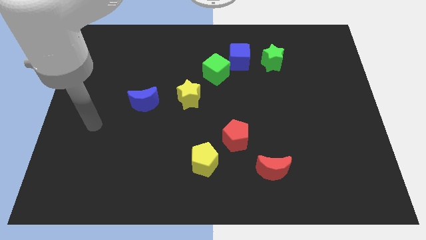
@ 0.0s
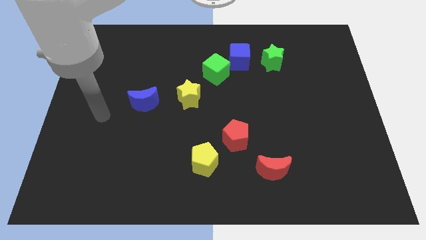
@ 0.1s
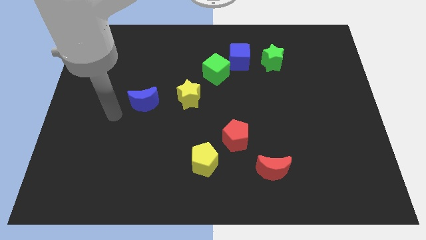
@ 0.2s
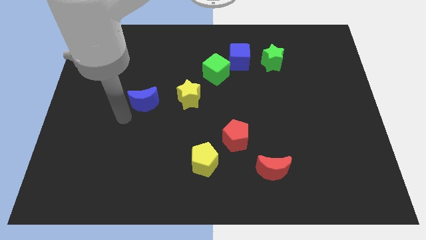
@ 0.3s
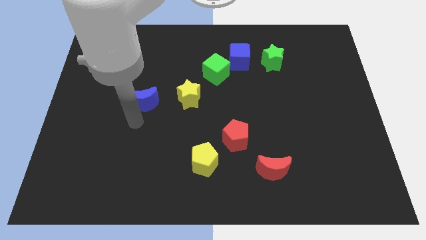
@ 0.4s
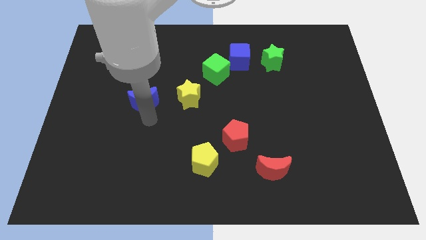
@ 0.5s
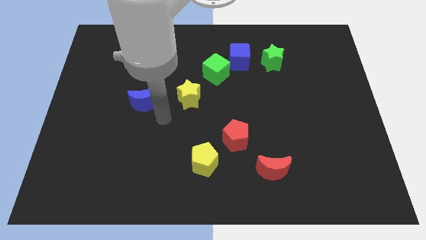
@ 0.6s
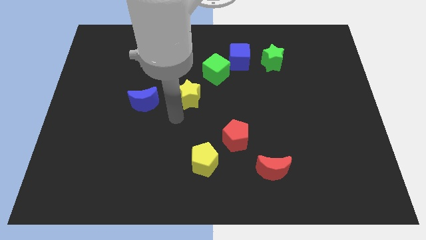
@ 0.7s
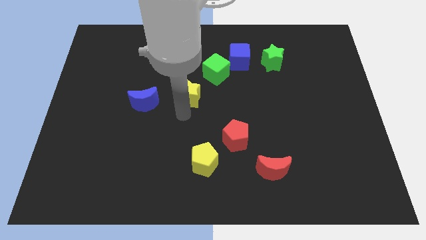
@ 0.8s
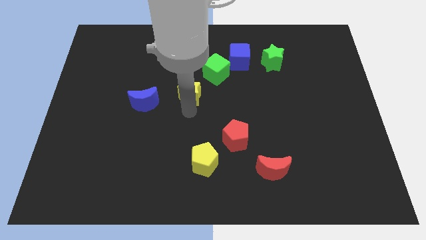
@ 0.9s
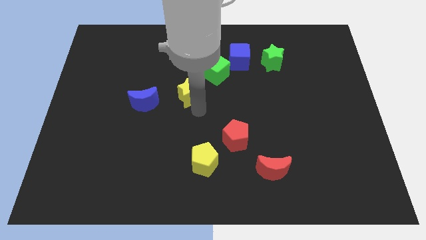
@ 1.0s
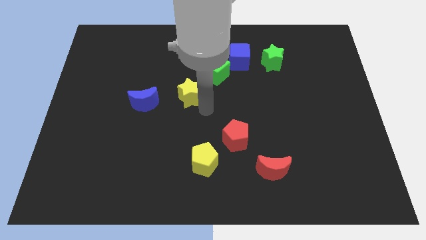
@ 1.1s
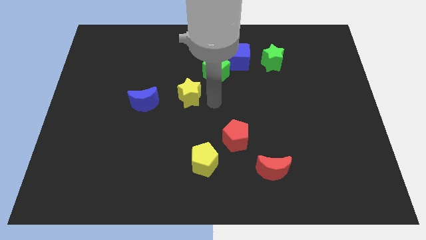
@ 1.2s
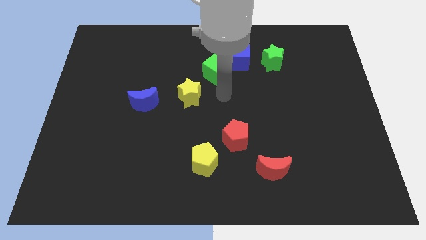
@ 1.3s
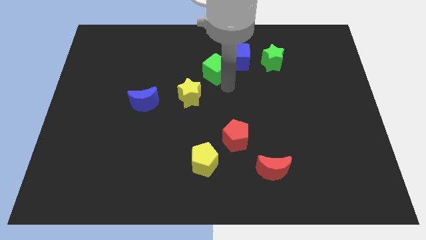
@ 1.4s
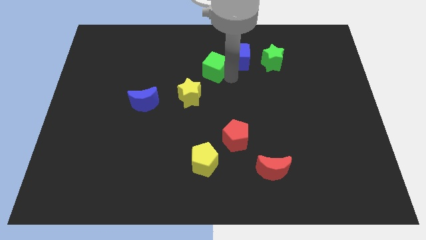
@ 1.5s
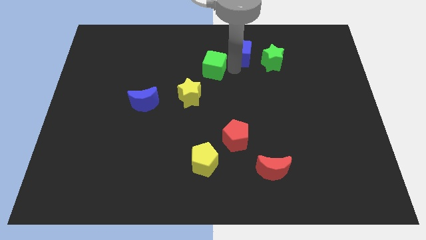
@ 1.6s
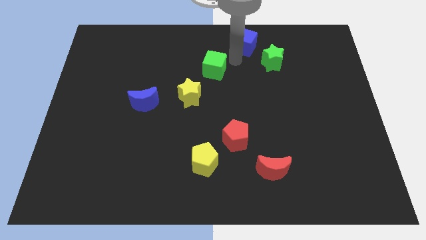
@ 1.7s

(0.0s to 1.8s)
pull the green cube apart from the blue cube

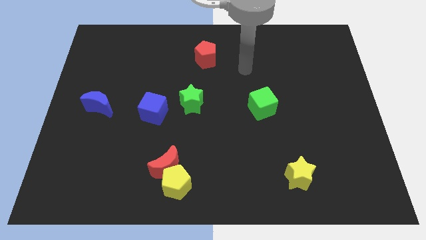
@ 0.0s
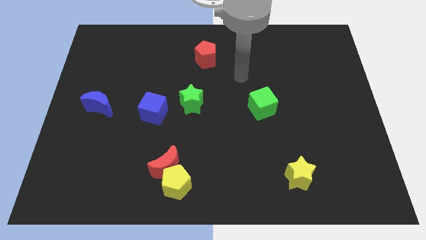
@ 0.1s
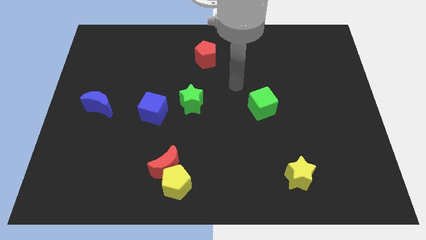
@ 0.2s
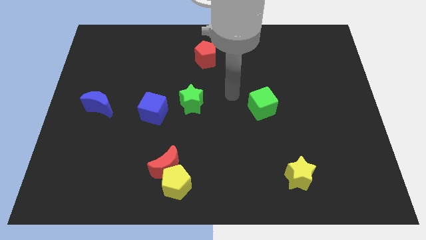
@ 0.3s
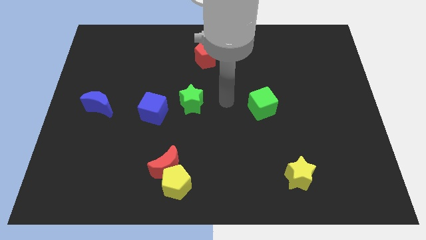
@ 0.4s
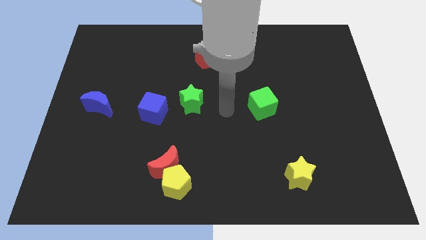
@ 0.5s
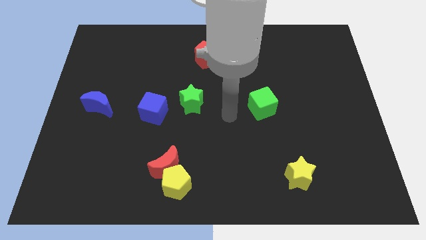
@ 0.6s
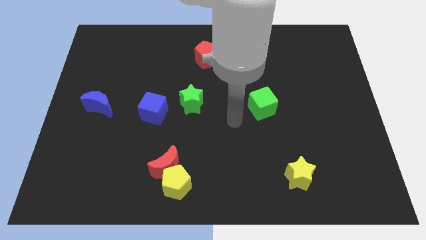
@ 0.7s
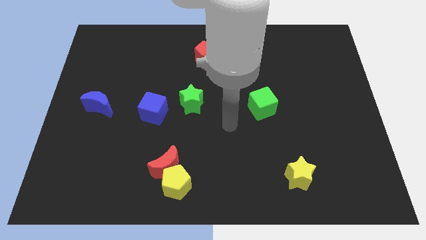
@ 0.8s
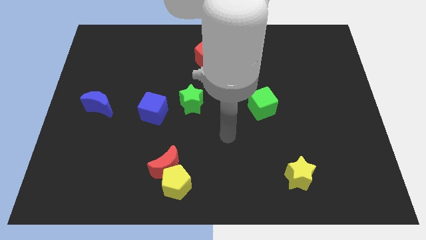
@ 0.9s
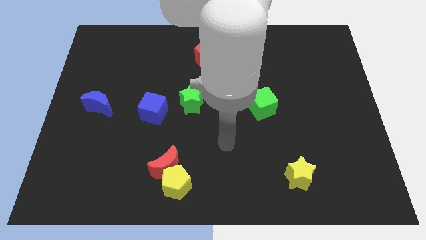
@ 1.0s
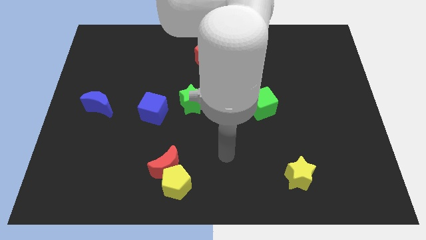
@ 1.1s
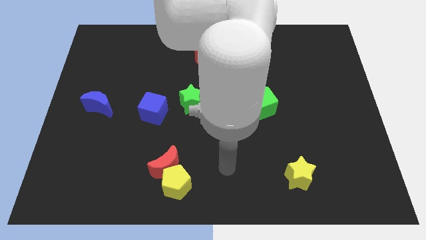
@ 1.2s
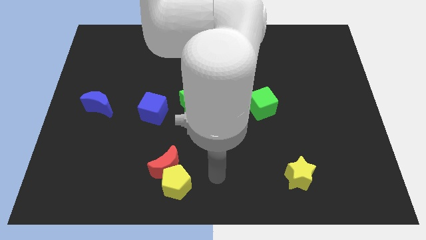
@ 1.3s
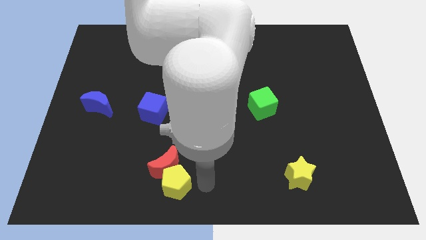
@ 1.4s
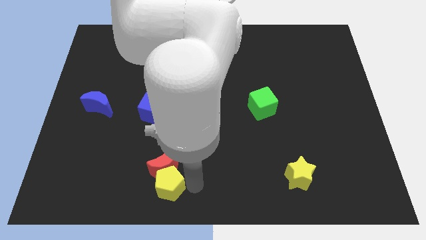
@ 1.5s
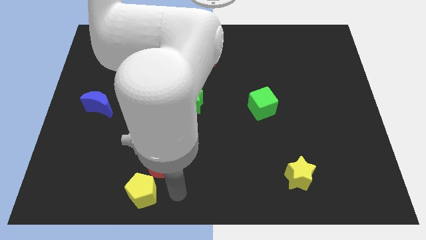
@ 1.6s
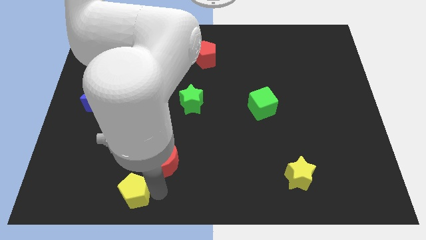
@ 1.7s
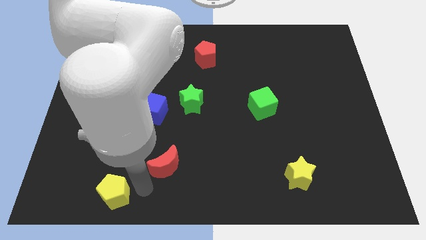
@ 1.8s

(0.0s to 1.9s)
move the red moon away from the yellow pentagon

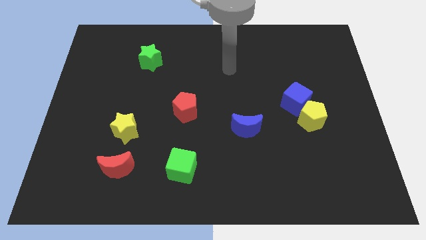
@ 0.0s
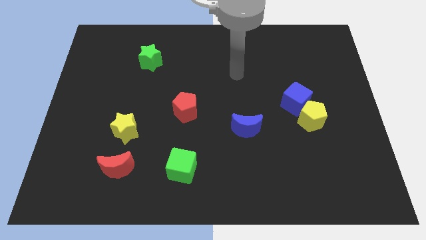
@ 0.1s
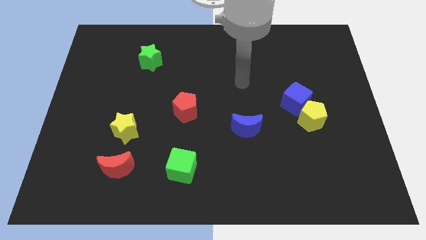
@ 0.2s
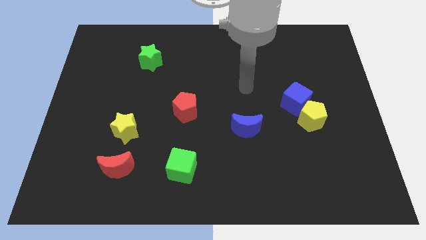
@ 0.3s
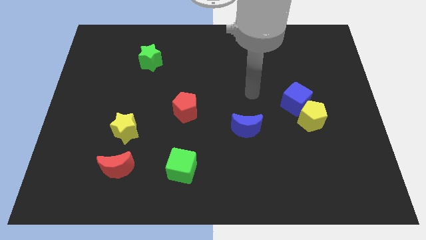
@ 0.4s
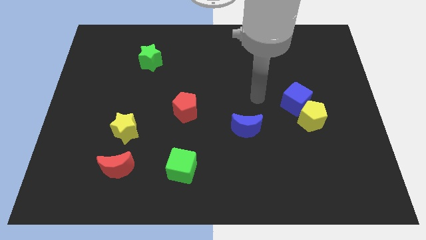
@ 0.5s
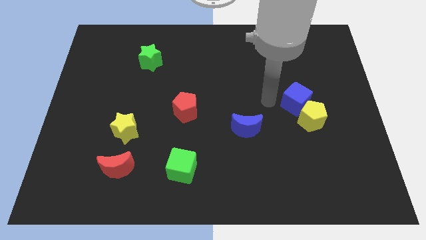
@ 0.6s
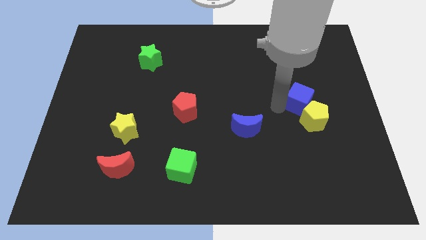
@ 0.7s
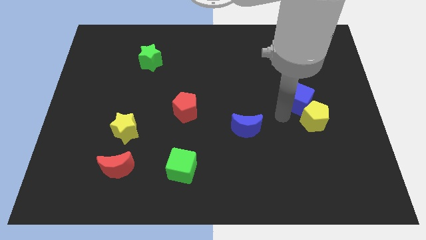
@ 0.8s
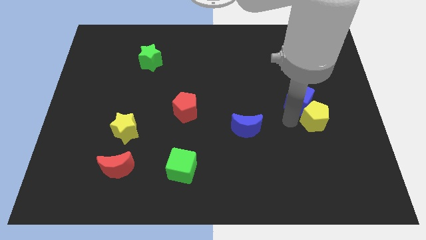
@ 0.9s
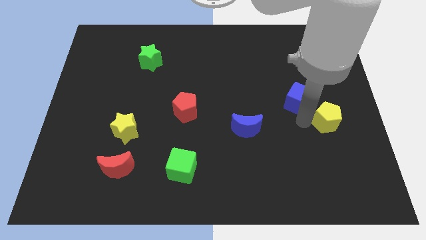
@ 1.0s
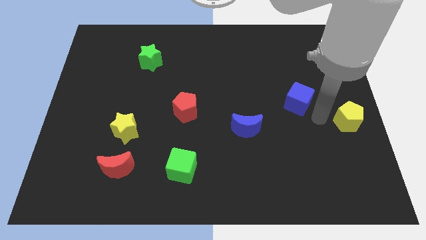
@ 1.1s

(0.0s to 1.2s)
move the blue cube away from the yellow pentagon

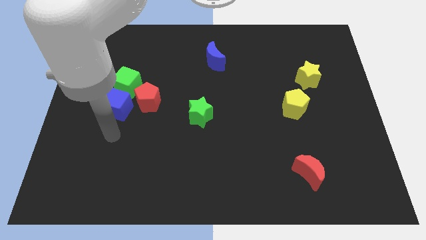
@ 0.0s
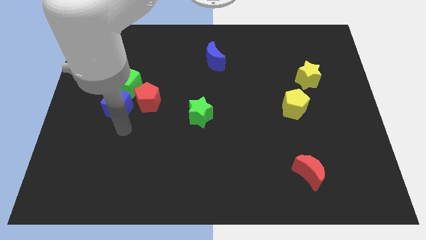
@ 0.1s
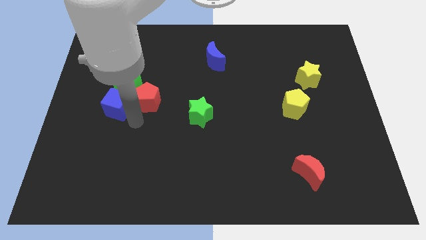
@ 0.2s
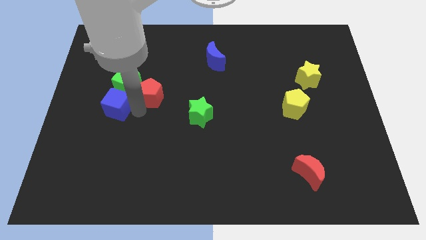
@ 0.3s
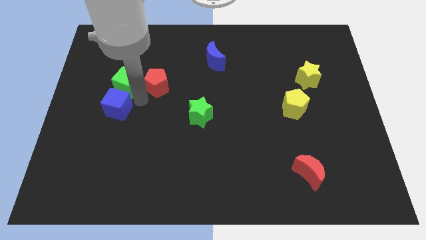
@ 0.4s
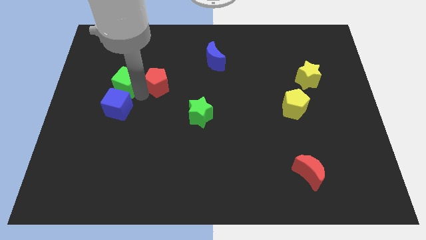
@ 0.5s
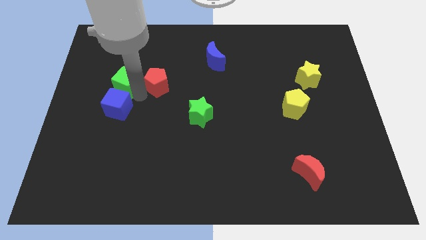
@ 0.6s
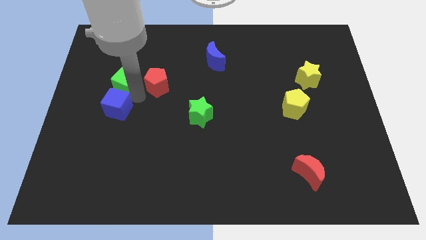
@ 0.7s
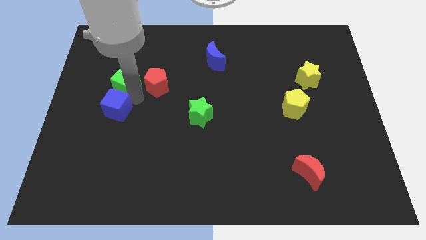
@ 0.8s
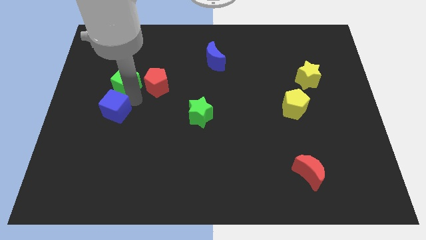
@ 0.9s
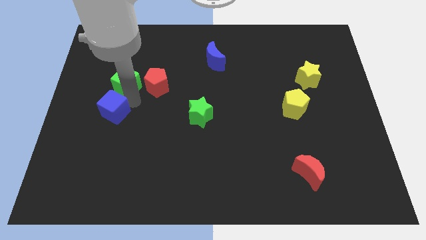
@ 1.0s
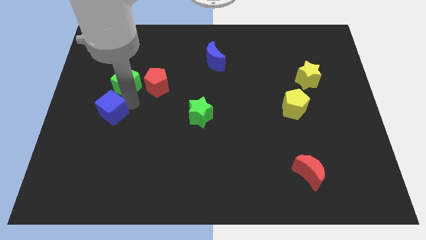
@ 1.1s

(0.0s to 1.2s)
pull the blue cube apart from the green cube and red pentagon

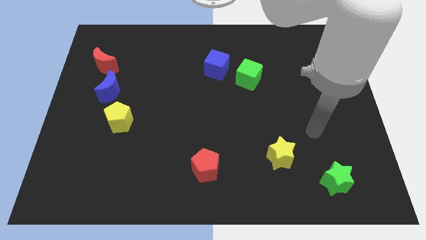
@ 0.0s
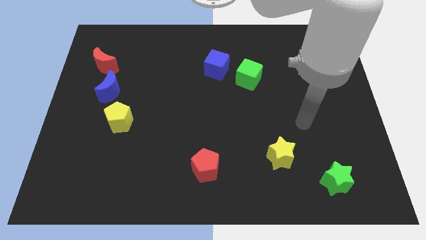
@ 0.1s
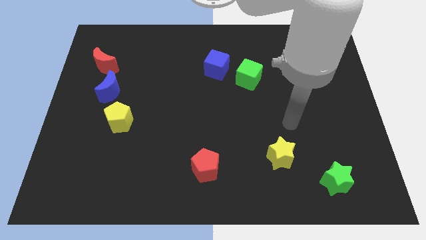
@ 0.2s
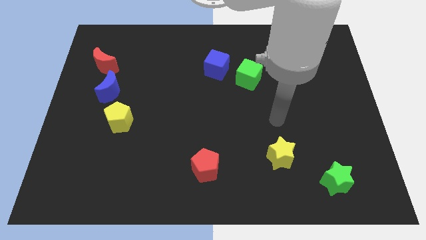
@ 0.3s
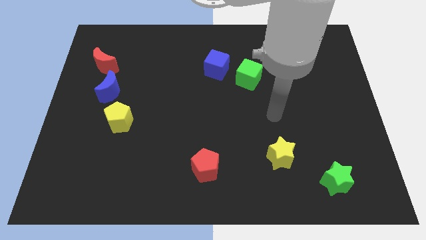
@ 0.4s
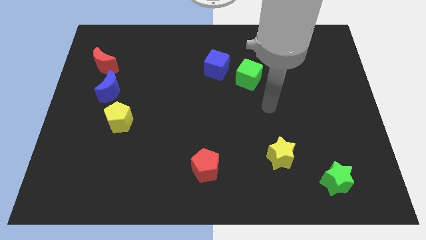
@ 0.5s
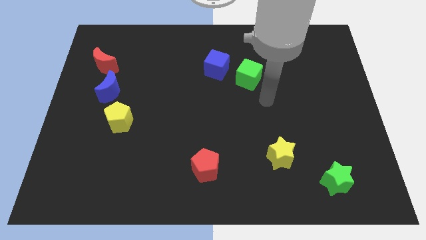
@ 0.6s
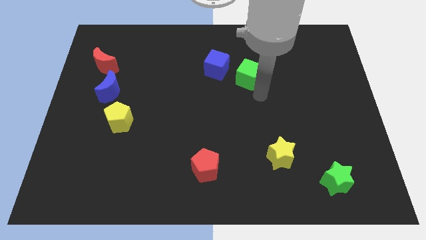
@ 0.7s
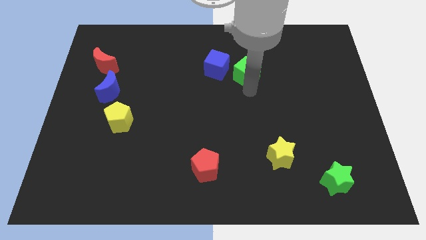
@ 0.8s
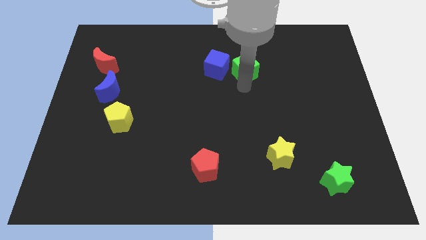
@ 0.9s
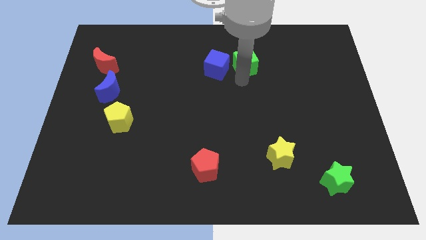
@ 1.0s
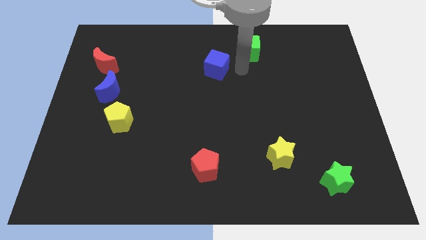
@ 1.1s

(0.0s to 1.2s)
pull the blue cube apart from the green cube

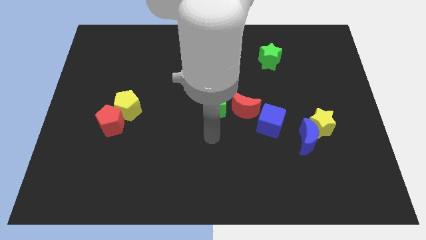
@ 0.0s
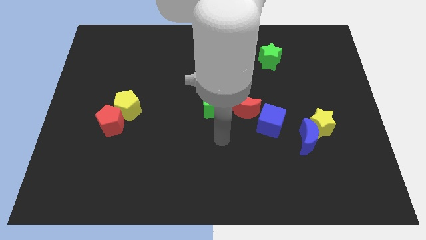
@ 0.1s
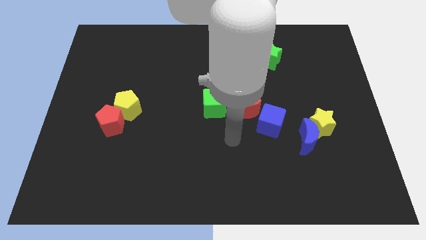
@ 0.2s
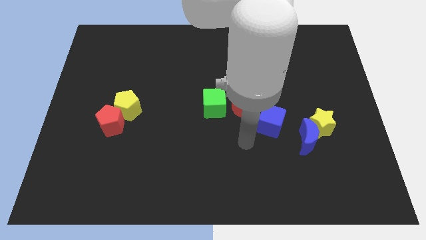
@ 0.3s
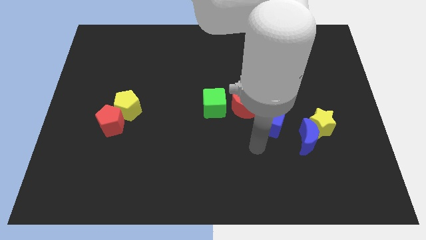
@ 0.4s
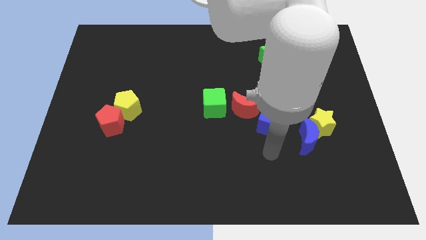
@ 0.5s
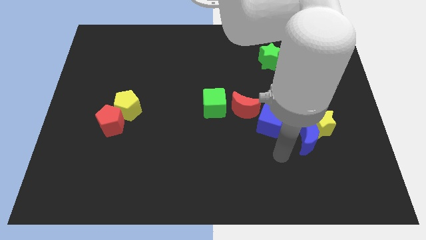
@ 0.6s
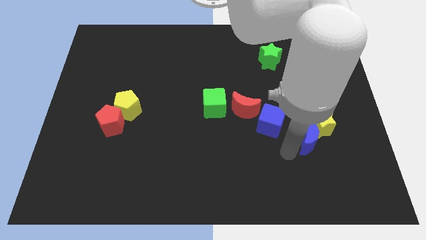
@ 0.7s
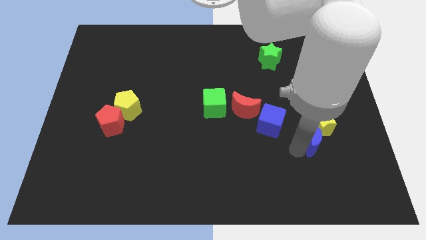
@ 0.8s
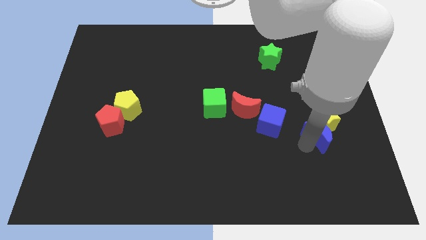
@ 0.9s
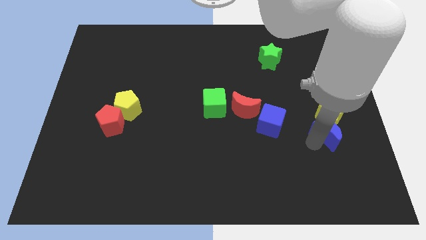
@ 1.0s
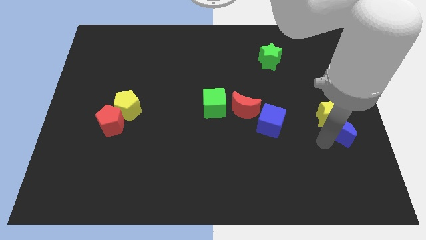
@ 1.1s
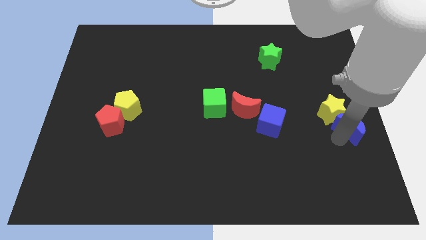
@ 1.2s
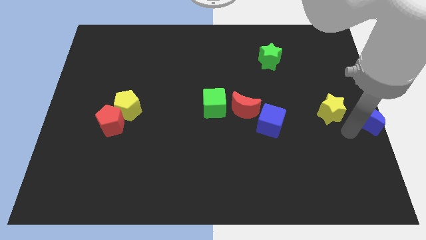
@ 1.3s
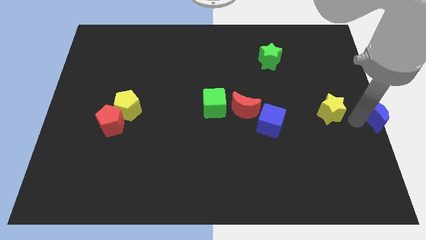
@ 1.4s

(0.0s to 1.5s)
pull the yellow star apart from the blue moon

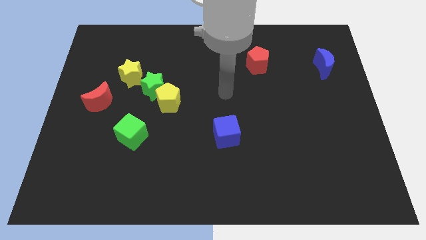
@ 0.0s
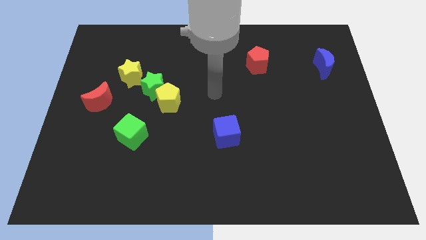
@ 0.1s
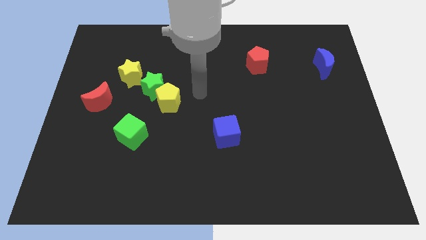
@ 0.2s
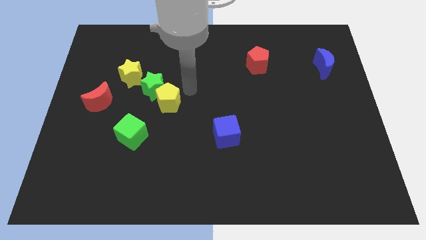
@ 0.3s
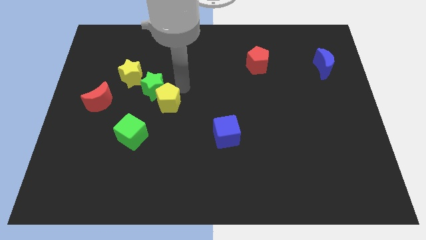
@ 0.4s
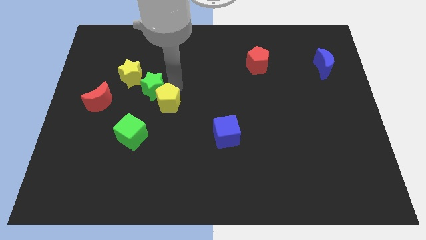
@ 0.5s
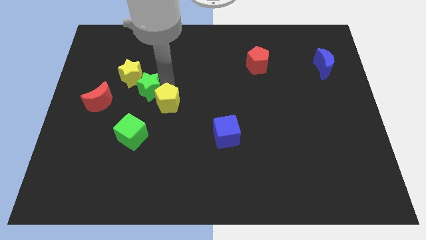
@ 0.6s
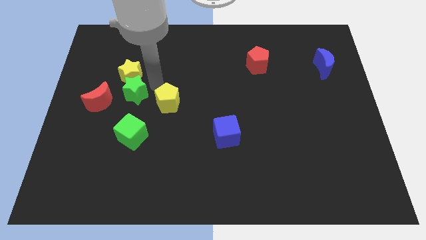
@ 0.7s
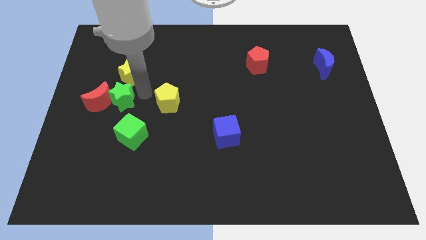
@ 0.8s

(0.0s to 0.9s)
pull the yellow pentagon apart from the green star
